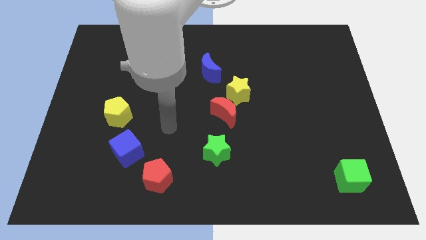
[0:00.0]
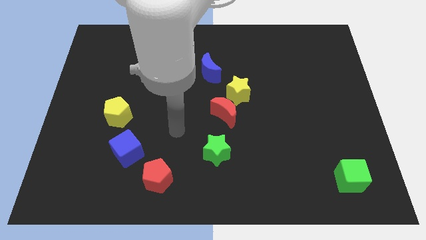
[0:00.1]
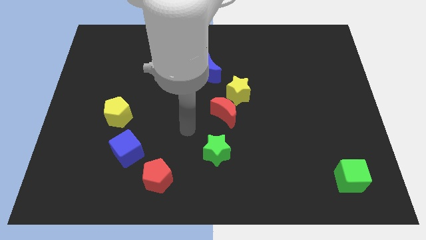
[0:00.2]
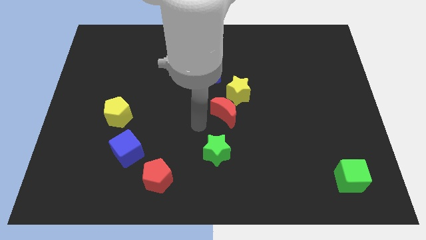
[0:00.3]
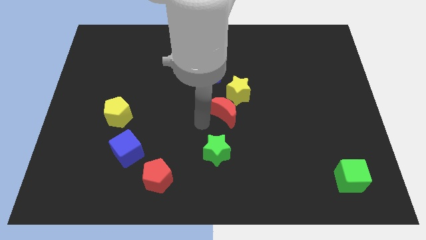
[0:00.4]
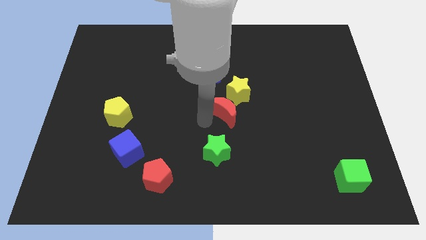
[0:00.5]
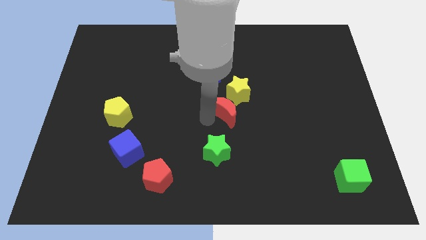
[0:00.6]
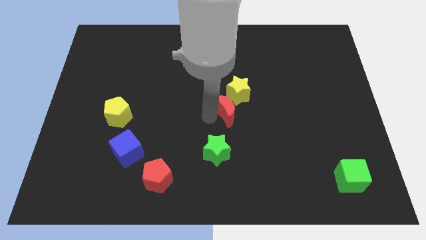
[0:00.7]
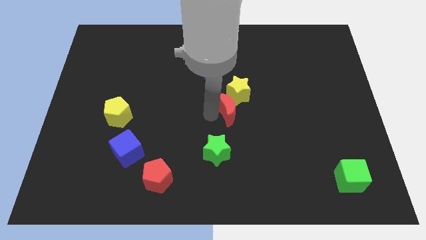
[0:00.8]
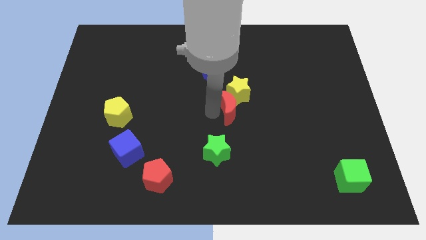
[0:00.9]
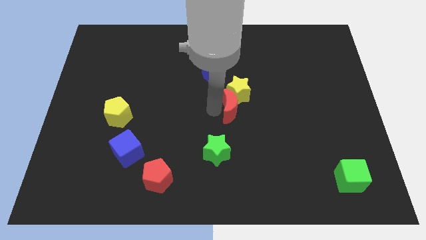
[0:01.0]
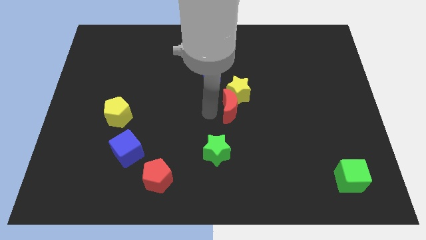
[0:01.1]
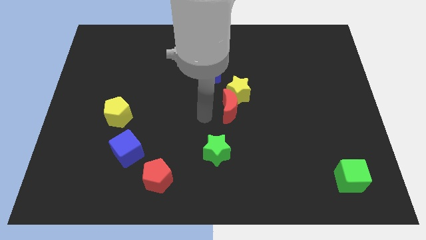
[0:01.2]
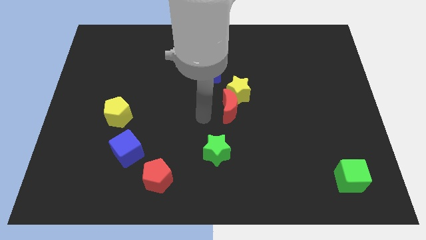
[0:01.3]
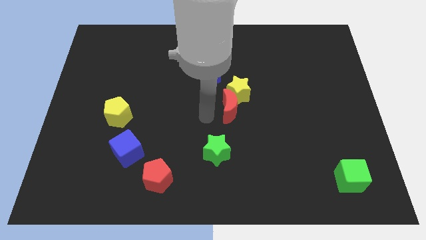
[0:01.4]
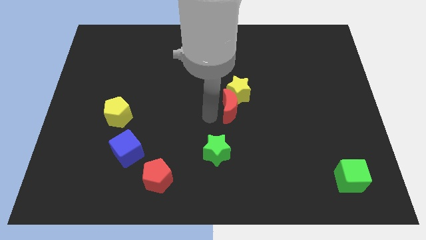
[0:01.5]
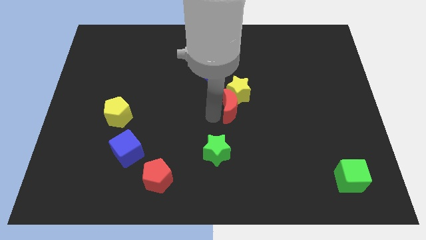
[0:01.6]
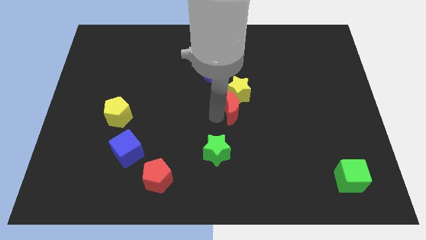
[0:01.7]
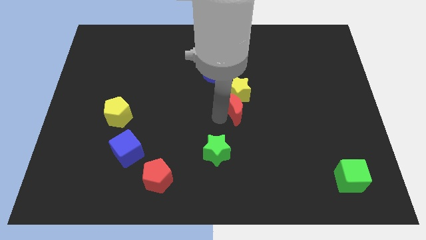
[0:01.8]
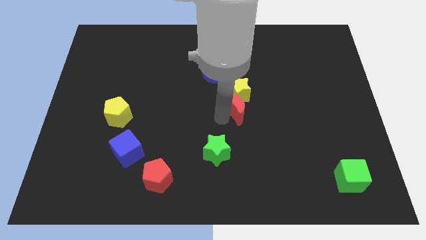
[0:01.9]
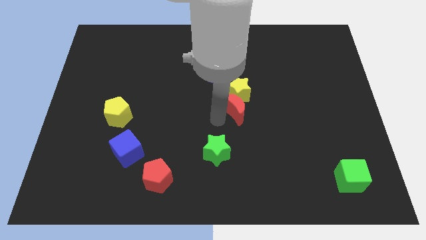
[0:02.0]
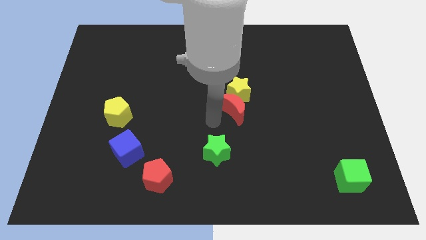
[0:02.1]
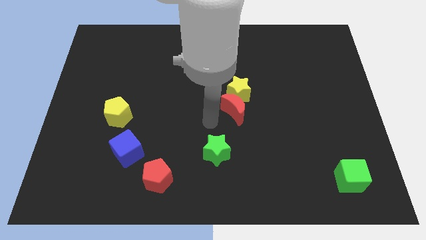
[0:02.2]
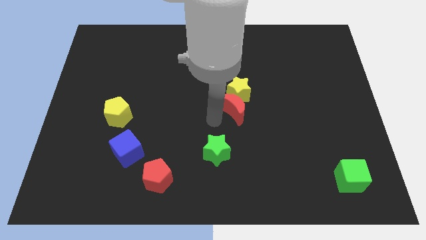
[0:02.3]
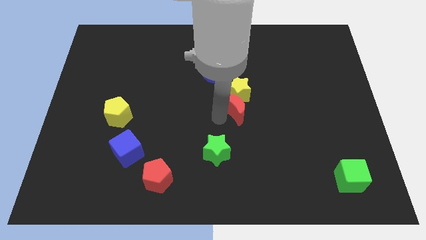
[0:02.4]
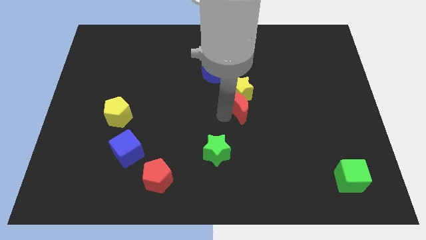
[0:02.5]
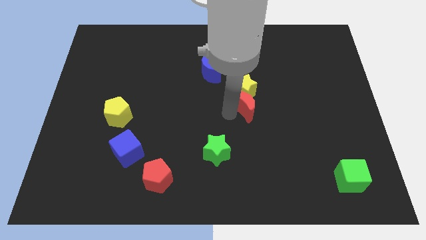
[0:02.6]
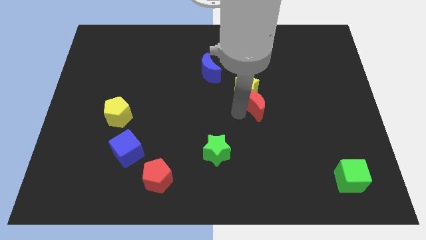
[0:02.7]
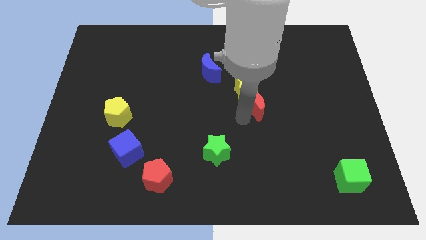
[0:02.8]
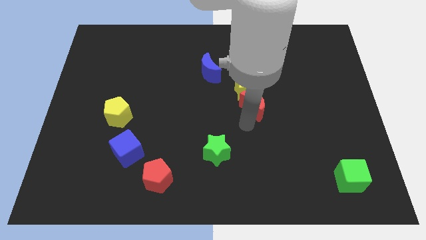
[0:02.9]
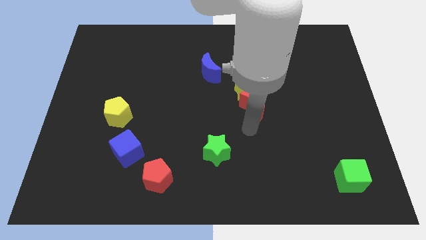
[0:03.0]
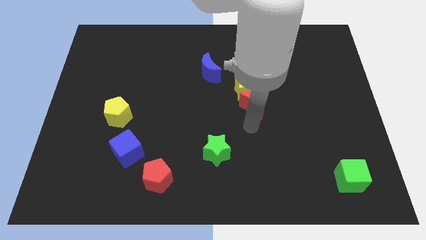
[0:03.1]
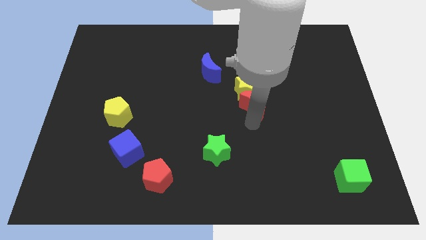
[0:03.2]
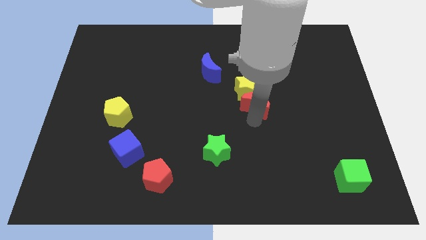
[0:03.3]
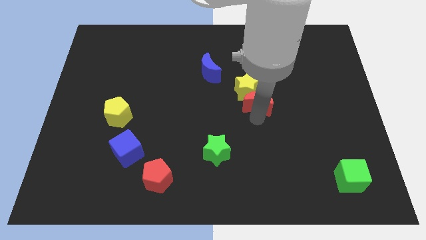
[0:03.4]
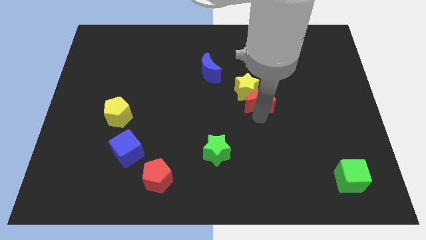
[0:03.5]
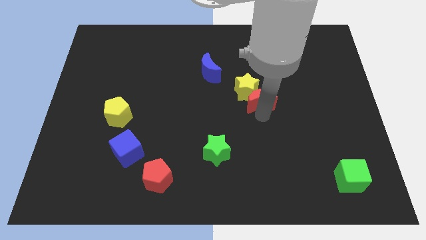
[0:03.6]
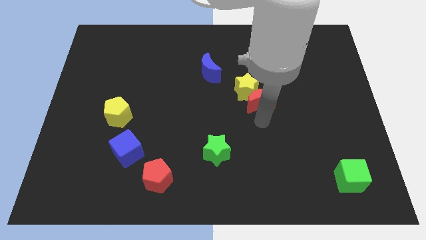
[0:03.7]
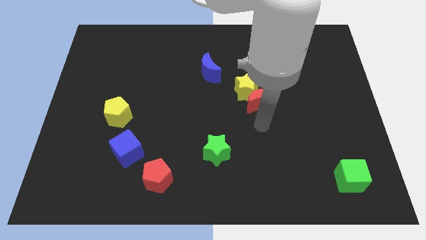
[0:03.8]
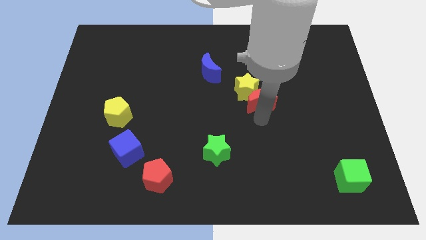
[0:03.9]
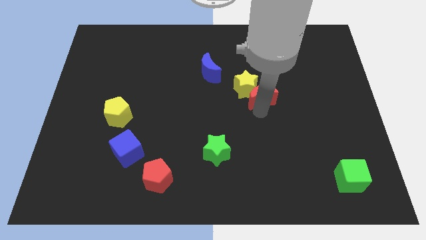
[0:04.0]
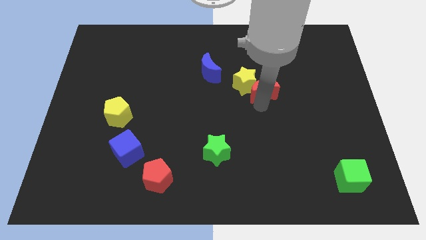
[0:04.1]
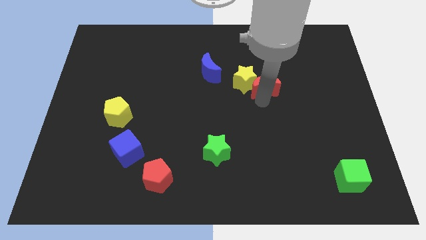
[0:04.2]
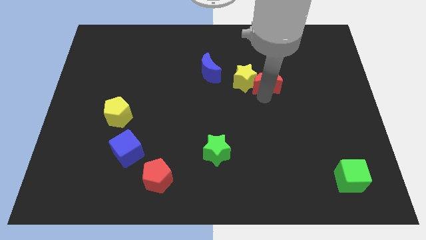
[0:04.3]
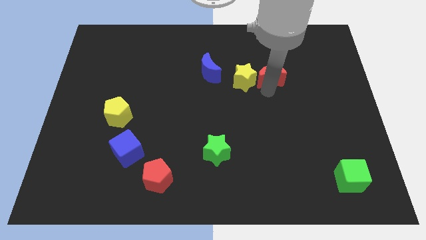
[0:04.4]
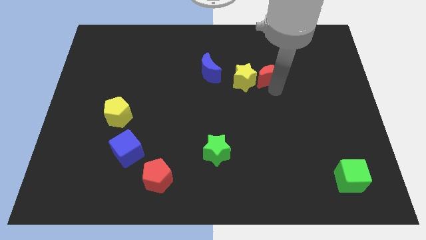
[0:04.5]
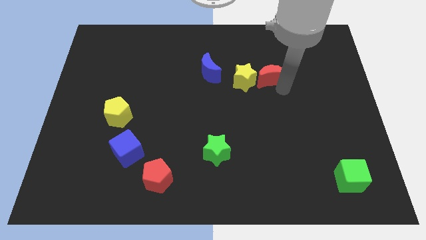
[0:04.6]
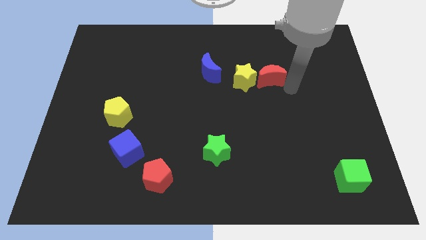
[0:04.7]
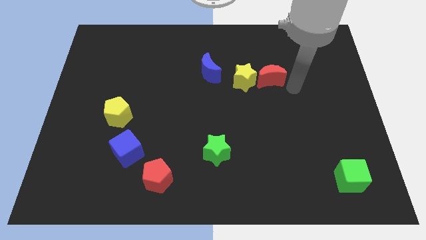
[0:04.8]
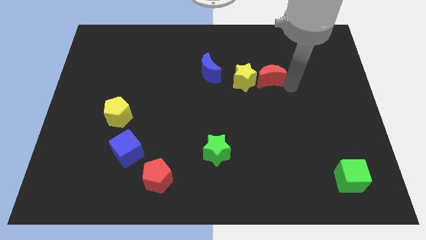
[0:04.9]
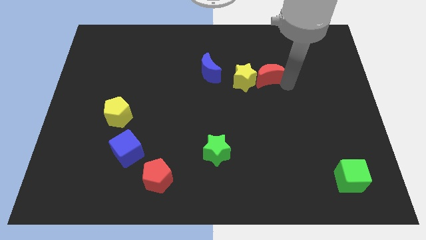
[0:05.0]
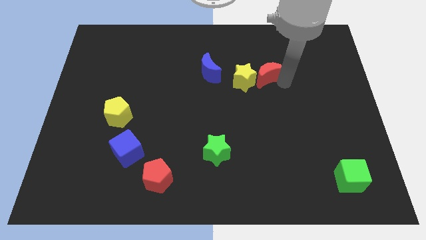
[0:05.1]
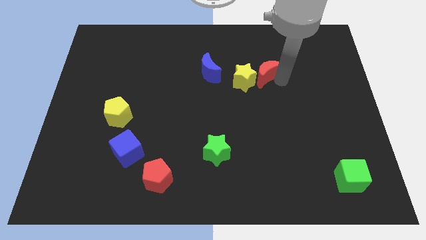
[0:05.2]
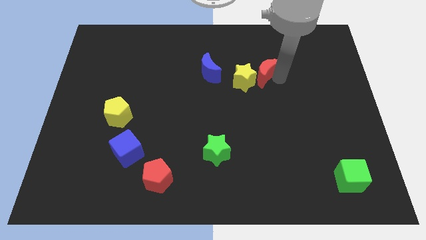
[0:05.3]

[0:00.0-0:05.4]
move the red moon a little upwards

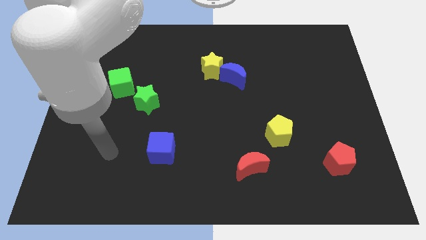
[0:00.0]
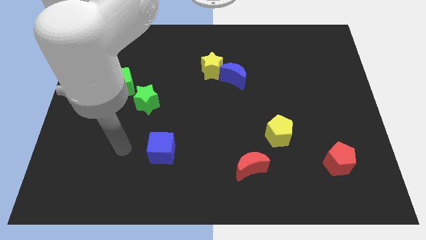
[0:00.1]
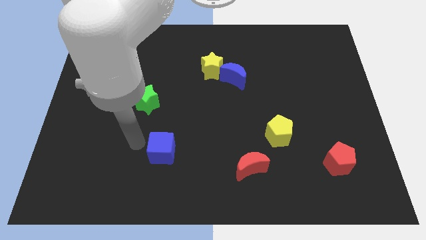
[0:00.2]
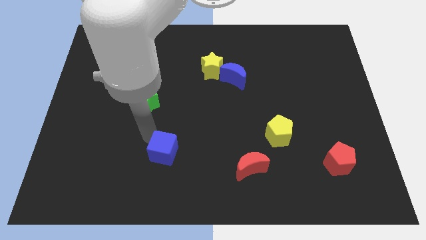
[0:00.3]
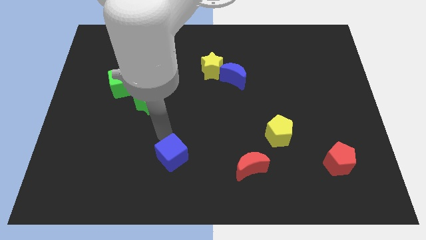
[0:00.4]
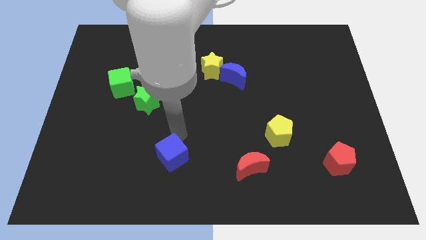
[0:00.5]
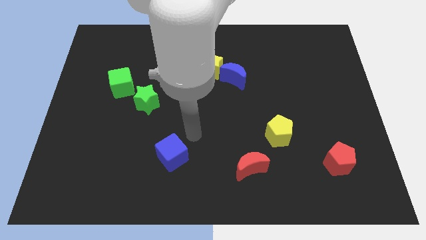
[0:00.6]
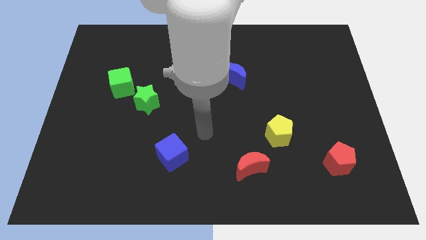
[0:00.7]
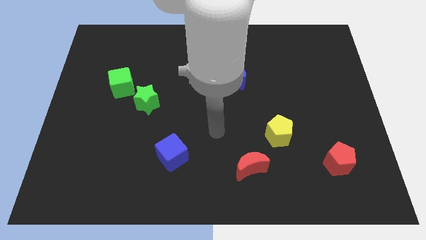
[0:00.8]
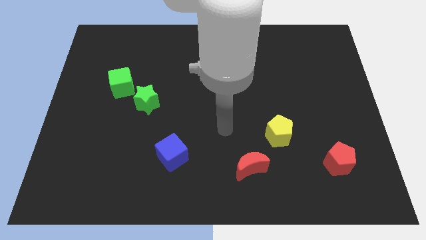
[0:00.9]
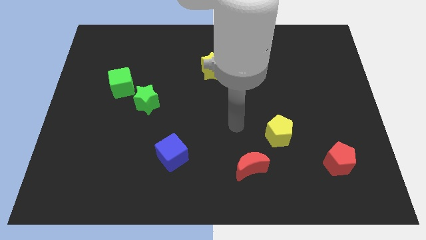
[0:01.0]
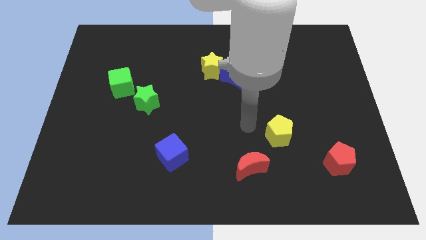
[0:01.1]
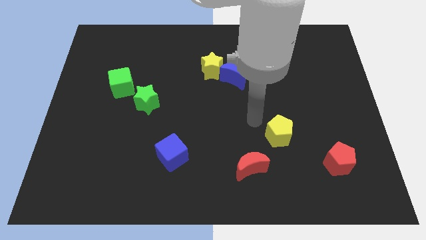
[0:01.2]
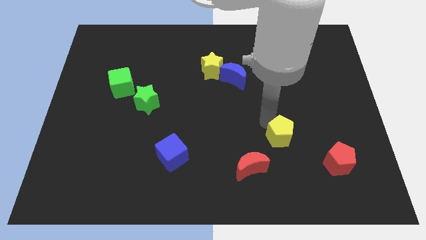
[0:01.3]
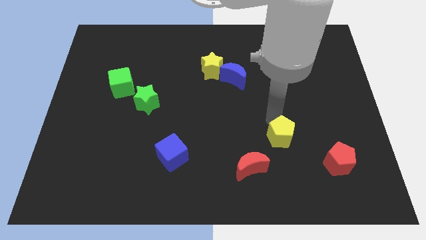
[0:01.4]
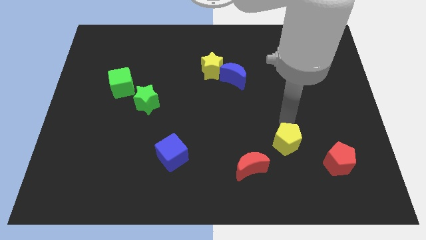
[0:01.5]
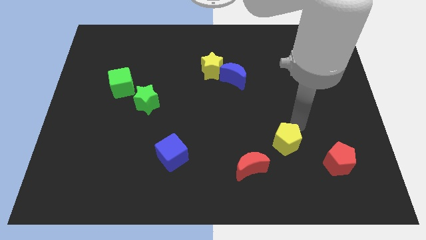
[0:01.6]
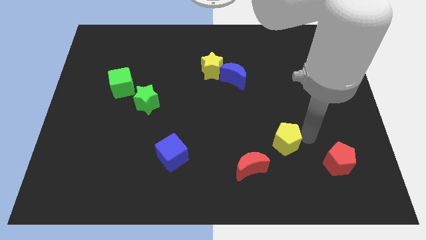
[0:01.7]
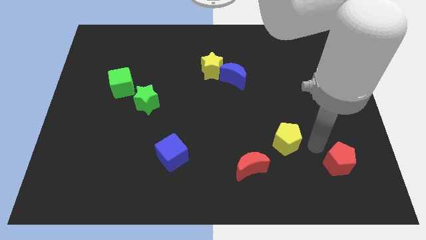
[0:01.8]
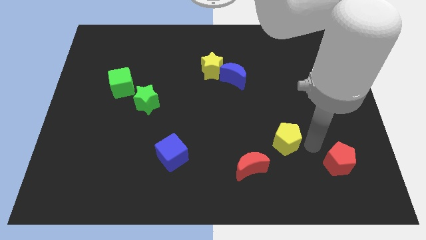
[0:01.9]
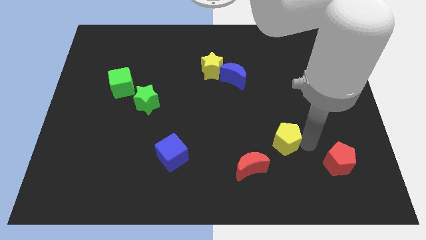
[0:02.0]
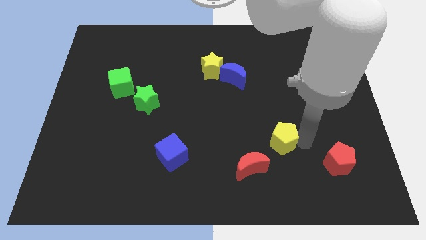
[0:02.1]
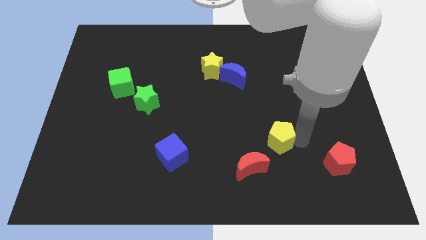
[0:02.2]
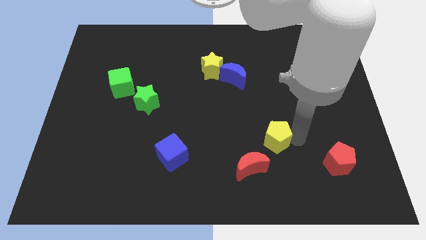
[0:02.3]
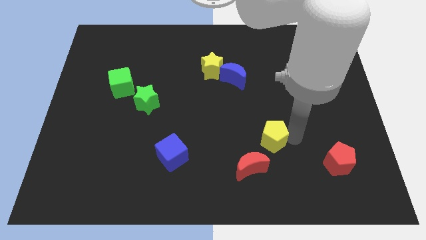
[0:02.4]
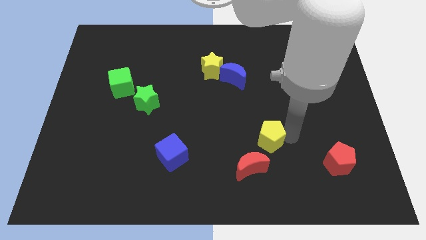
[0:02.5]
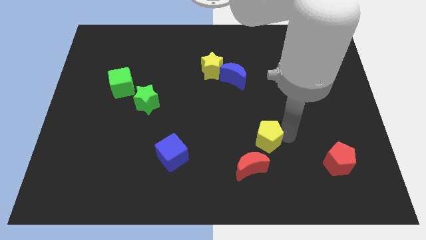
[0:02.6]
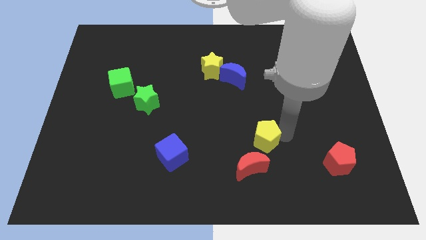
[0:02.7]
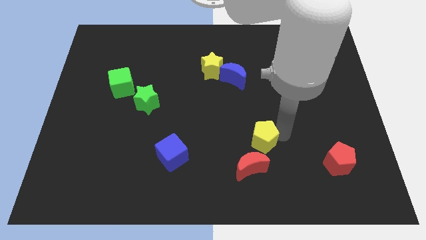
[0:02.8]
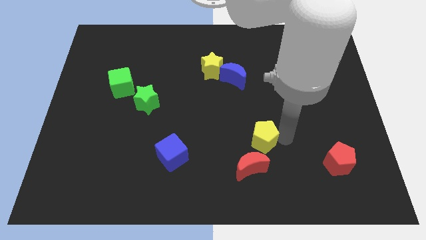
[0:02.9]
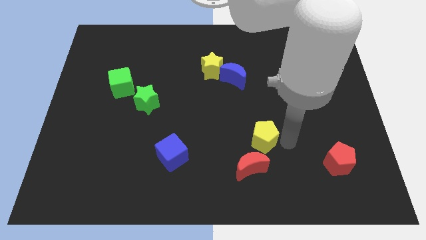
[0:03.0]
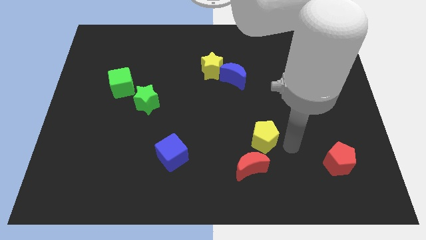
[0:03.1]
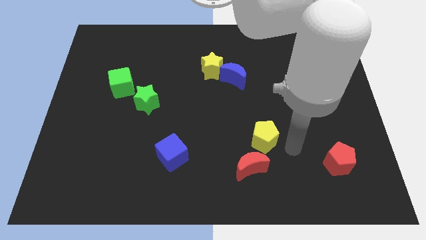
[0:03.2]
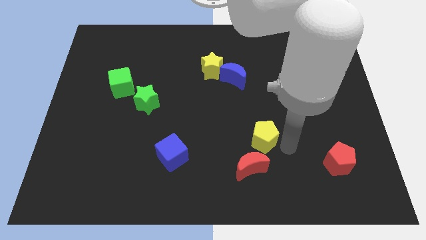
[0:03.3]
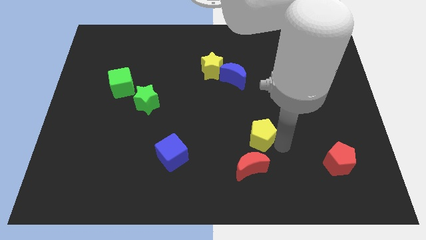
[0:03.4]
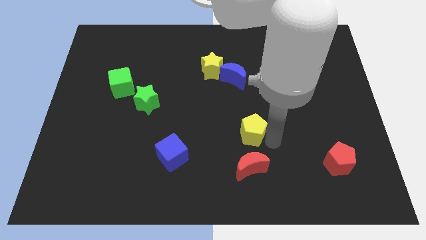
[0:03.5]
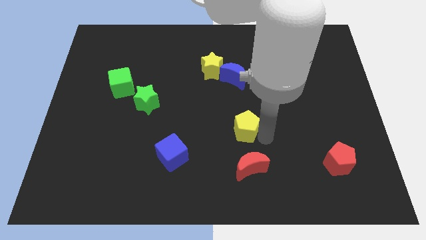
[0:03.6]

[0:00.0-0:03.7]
push the yellow pentagon to the left a little
